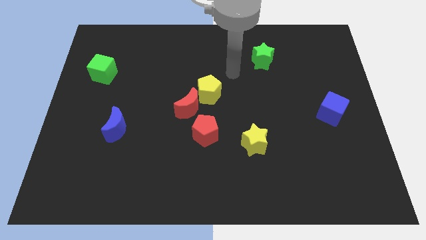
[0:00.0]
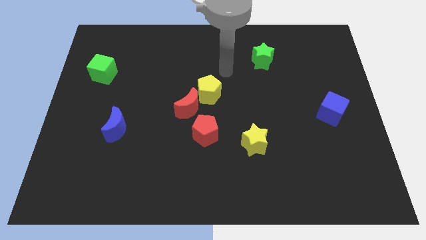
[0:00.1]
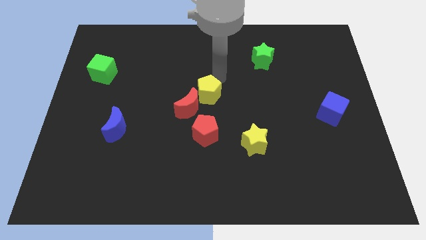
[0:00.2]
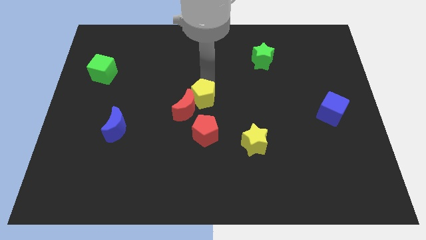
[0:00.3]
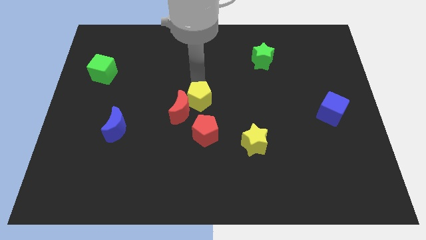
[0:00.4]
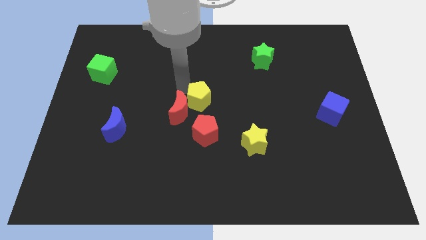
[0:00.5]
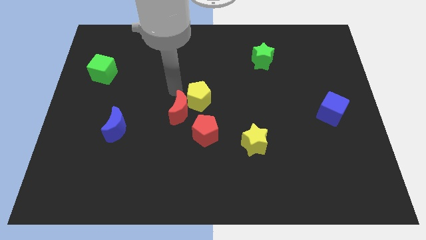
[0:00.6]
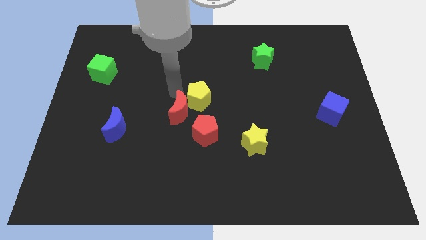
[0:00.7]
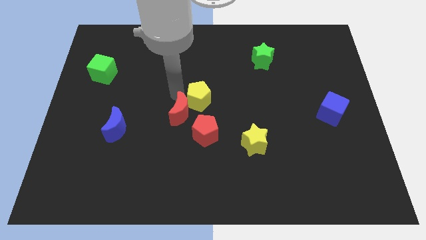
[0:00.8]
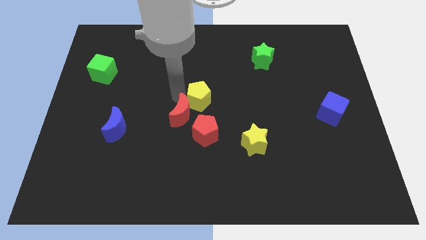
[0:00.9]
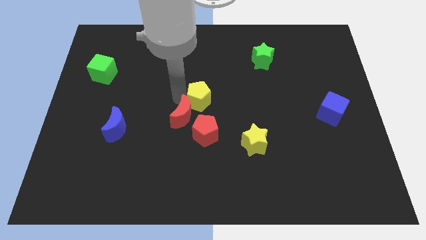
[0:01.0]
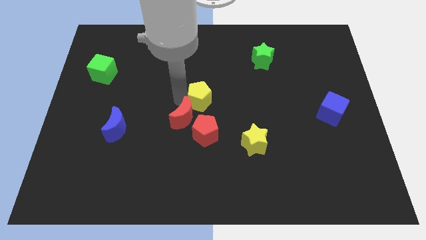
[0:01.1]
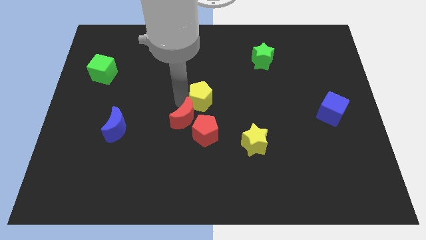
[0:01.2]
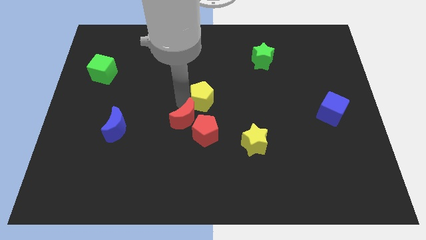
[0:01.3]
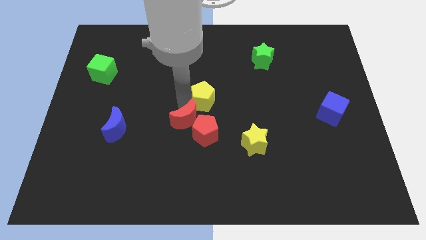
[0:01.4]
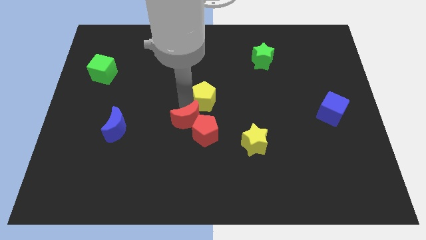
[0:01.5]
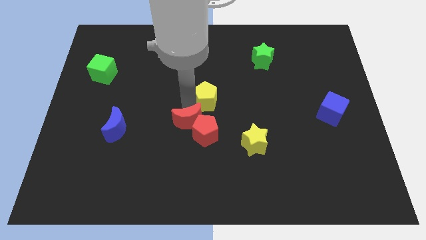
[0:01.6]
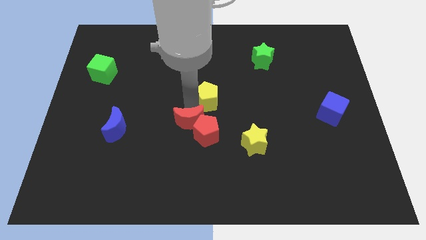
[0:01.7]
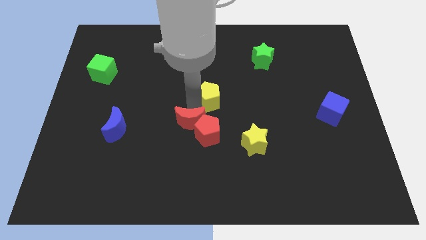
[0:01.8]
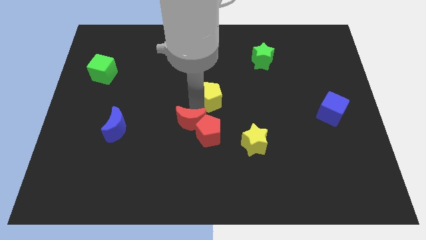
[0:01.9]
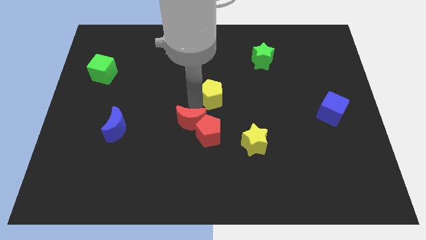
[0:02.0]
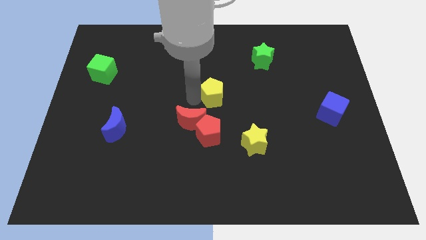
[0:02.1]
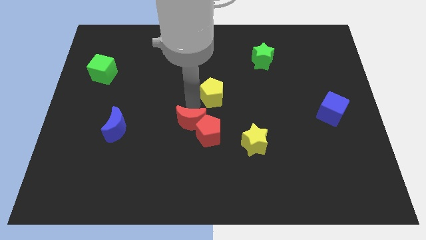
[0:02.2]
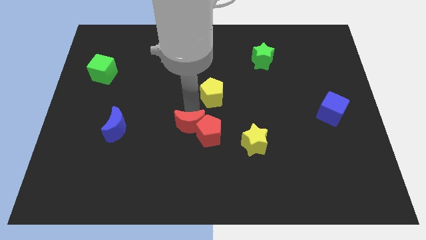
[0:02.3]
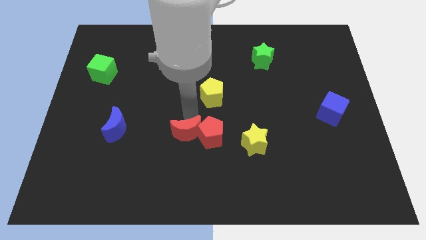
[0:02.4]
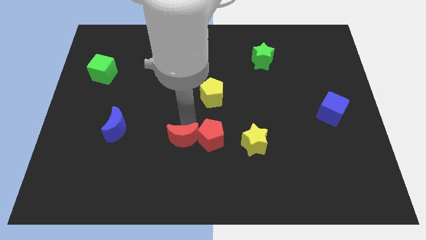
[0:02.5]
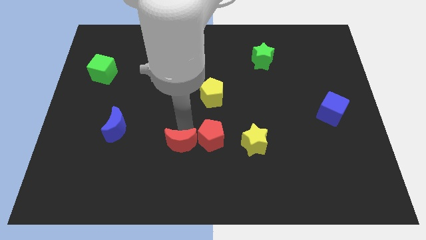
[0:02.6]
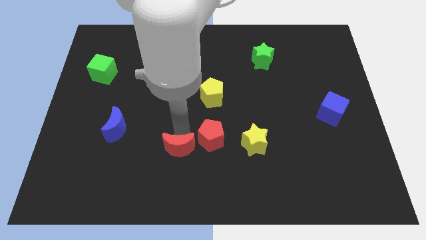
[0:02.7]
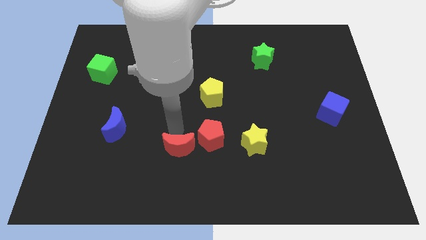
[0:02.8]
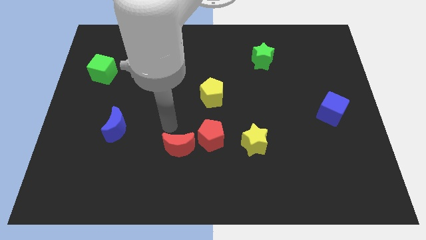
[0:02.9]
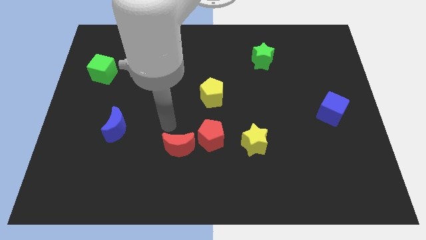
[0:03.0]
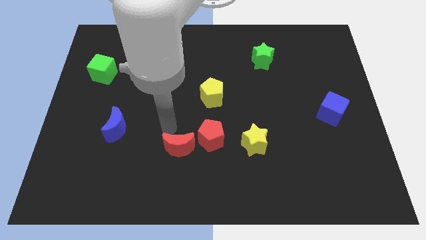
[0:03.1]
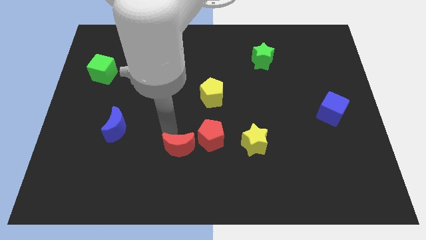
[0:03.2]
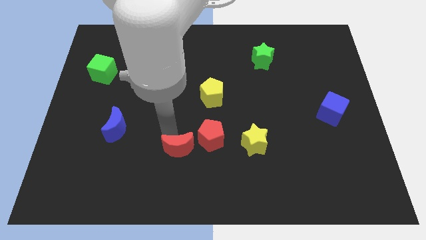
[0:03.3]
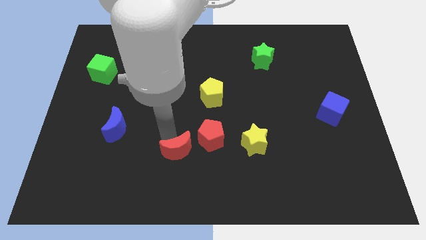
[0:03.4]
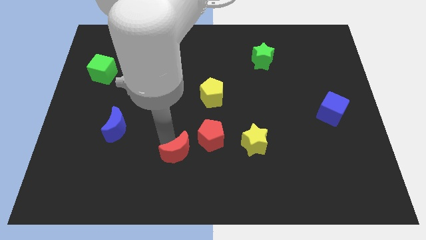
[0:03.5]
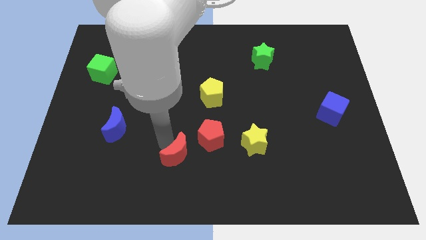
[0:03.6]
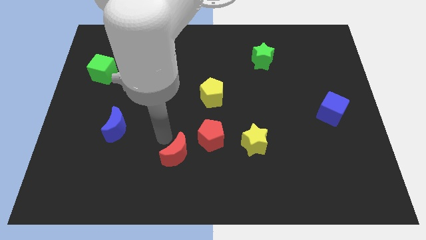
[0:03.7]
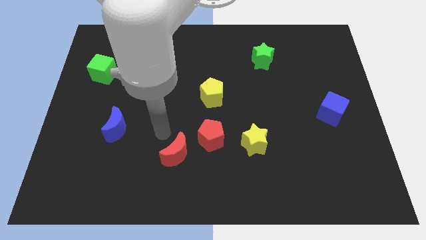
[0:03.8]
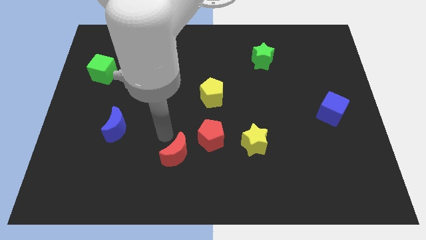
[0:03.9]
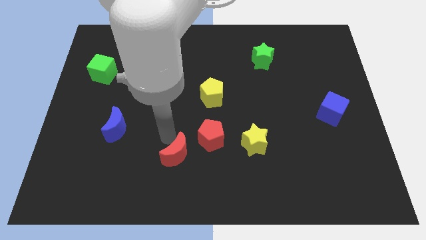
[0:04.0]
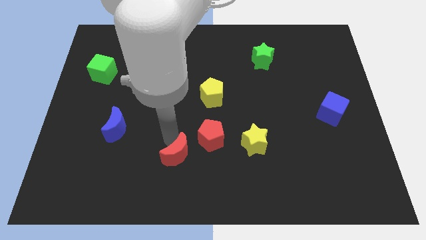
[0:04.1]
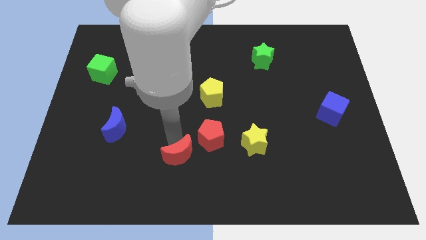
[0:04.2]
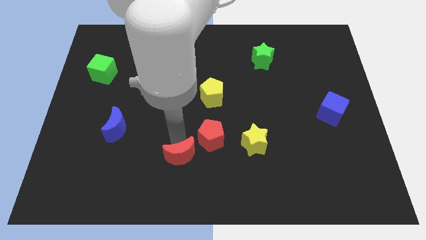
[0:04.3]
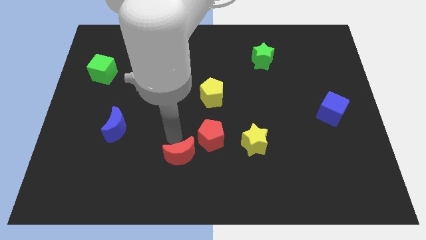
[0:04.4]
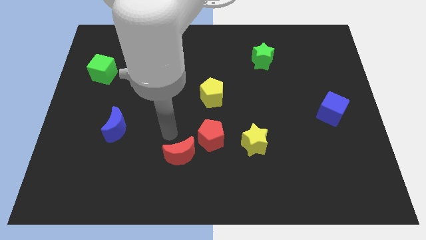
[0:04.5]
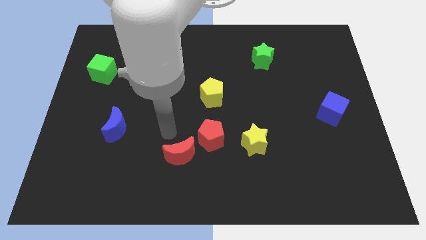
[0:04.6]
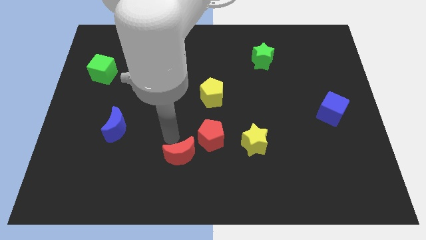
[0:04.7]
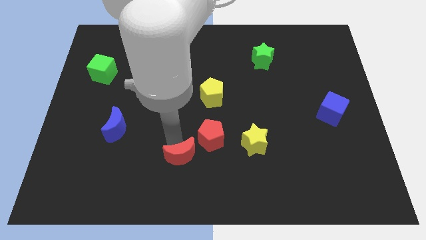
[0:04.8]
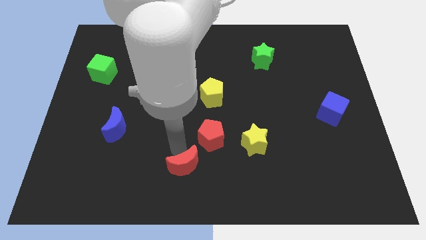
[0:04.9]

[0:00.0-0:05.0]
push the red moon to the bottom side

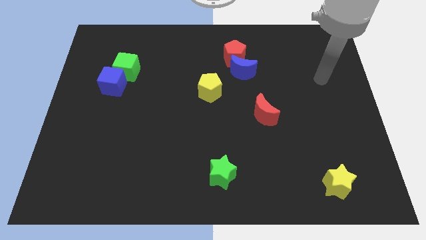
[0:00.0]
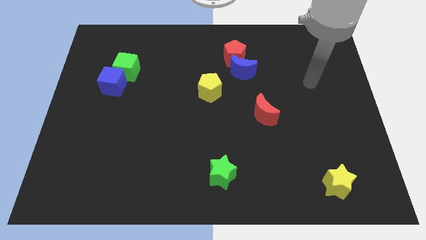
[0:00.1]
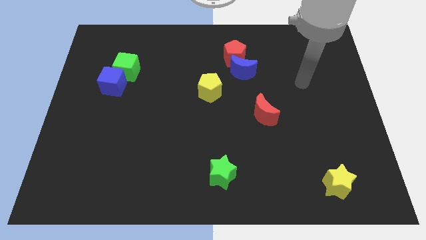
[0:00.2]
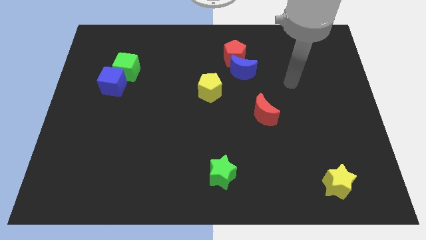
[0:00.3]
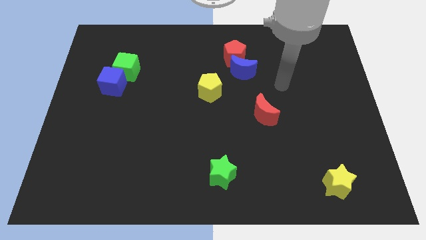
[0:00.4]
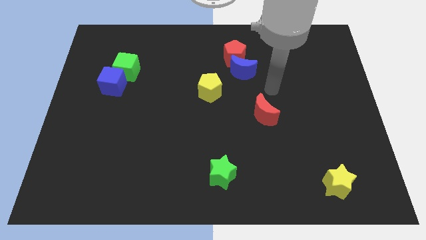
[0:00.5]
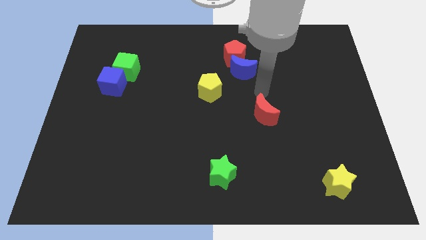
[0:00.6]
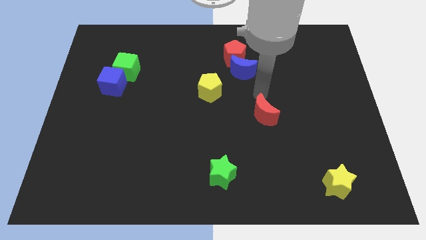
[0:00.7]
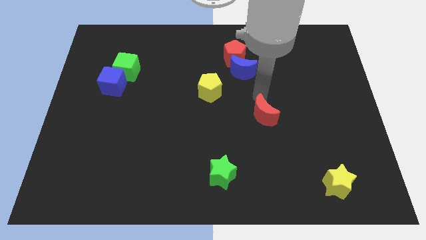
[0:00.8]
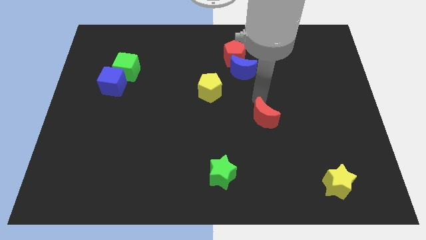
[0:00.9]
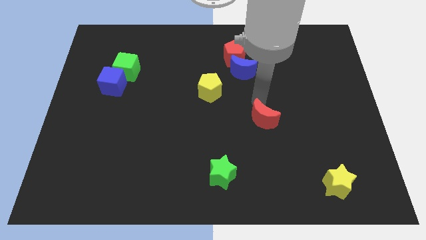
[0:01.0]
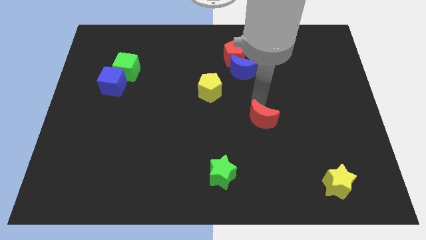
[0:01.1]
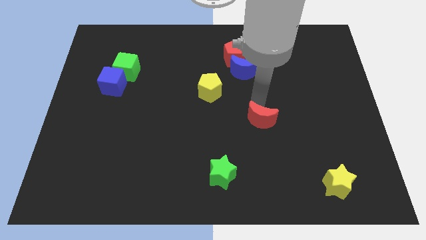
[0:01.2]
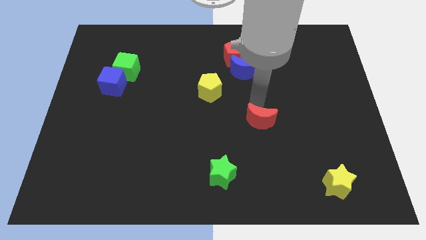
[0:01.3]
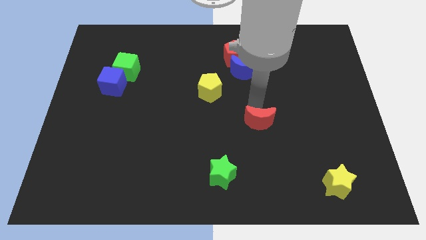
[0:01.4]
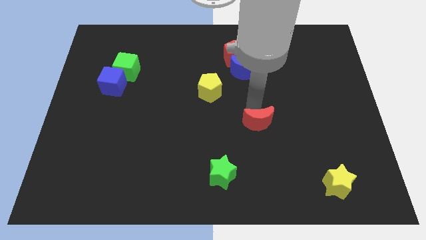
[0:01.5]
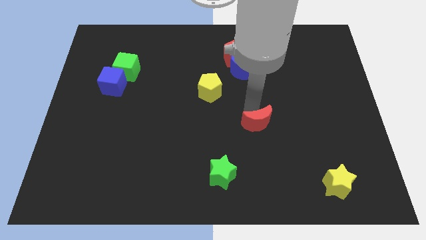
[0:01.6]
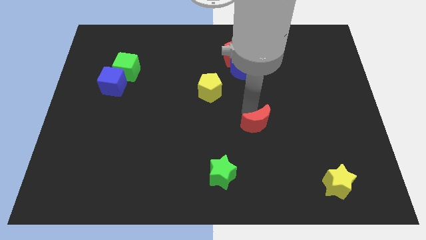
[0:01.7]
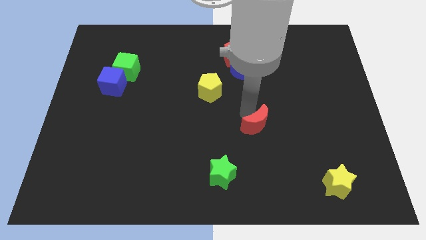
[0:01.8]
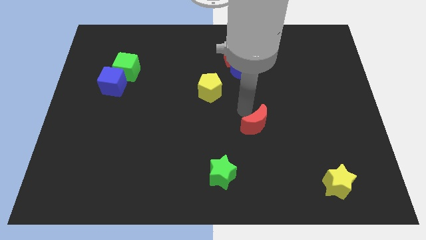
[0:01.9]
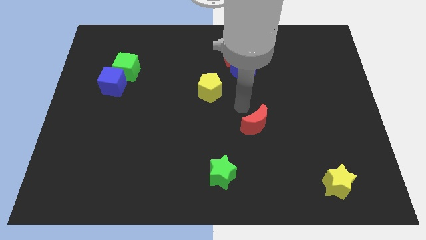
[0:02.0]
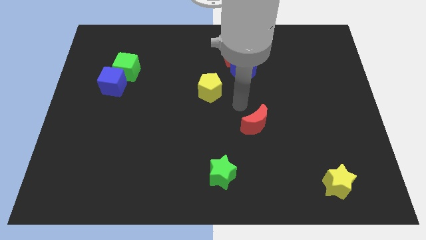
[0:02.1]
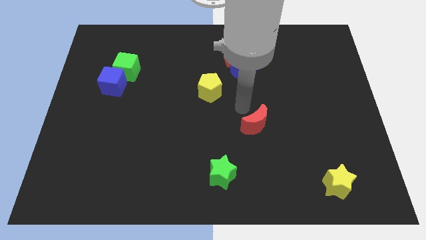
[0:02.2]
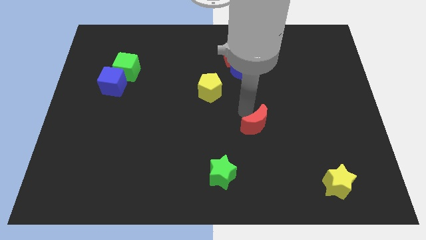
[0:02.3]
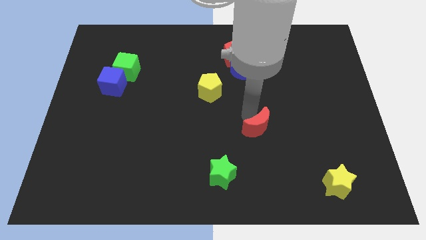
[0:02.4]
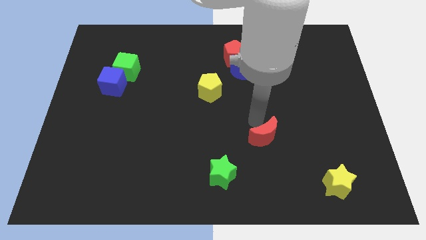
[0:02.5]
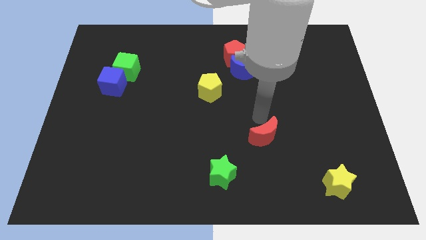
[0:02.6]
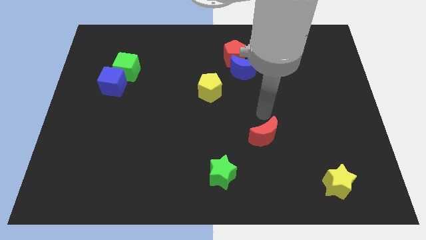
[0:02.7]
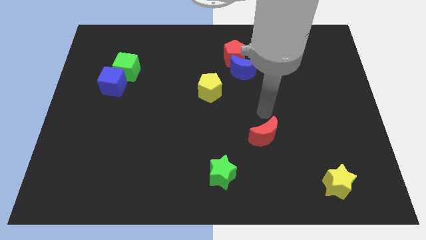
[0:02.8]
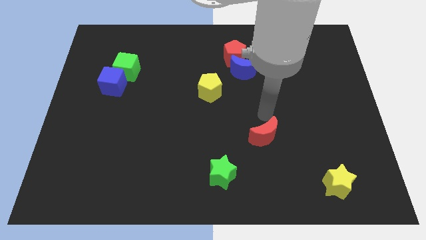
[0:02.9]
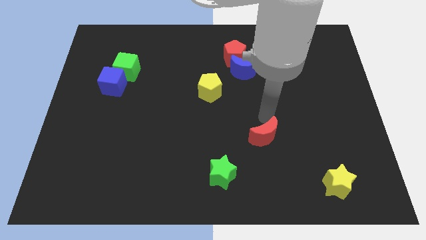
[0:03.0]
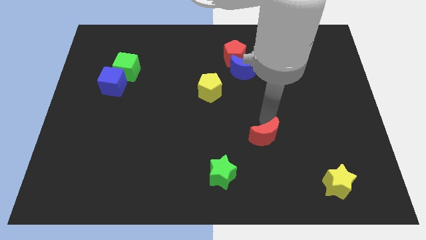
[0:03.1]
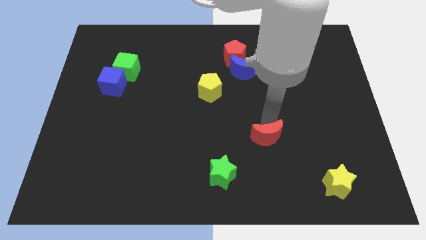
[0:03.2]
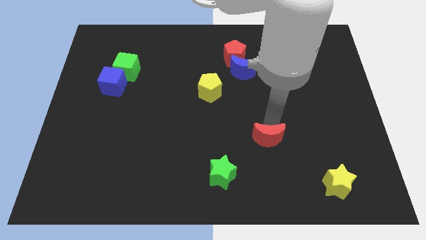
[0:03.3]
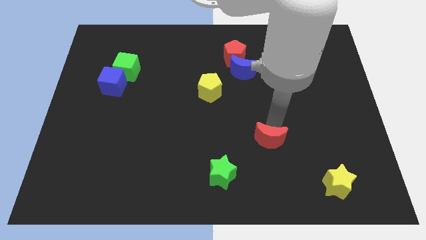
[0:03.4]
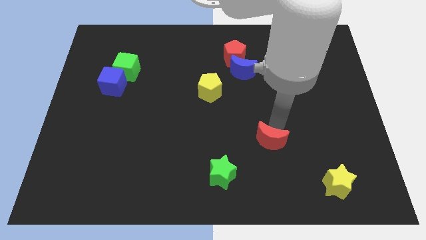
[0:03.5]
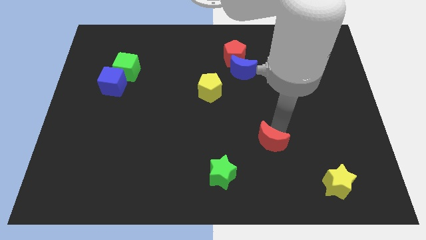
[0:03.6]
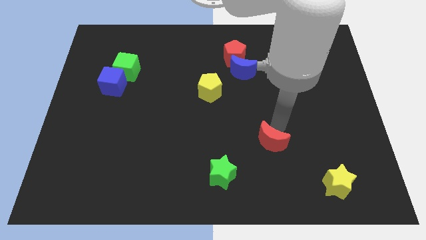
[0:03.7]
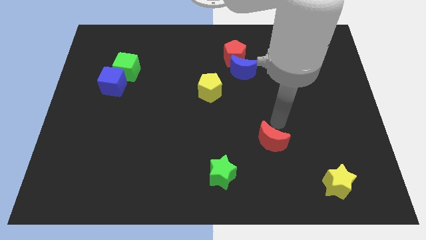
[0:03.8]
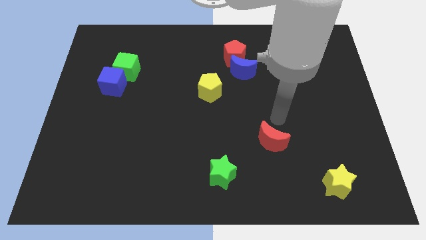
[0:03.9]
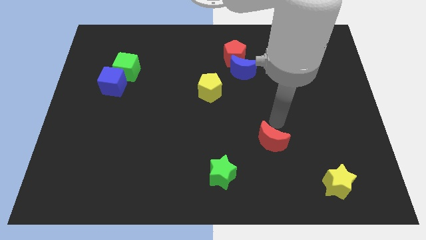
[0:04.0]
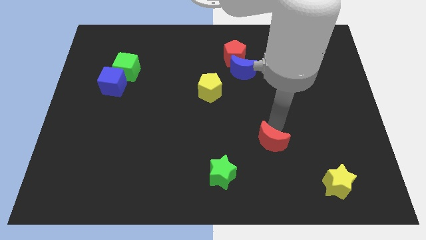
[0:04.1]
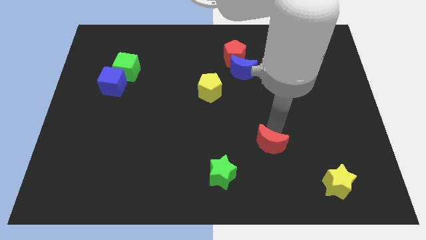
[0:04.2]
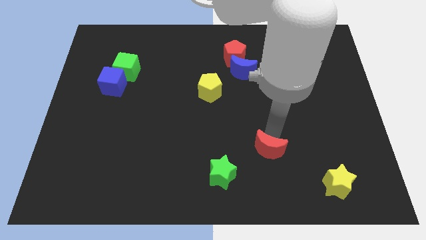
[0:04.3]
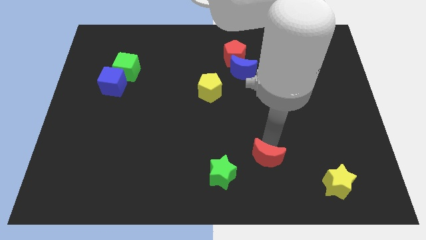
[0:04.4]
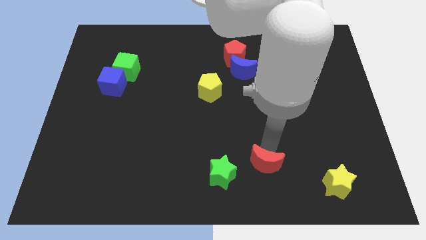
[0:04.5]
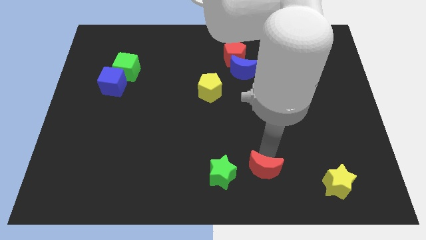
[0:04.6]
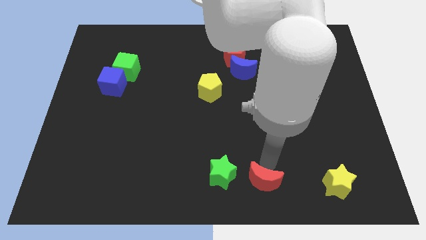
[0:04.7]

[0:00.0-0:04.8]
put the red moon to the bottom
